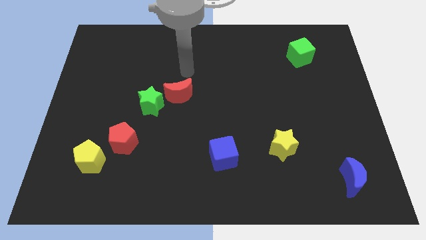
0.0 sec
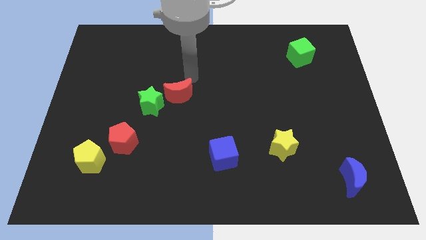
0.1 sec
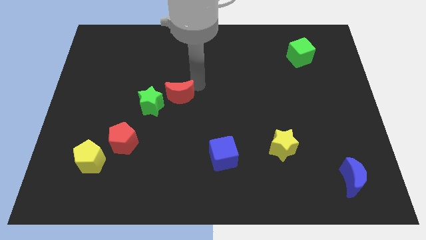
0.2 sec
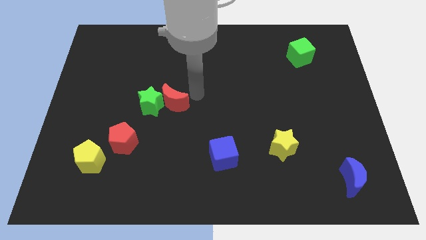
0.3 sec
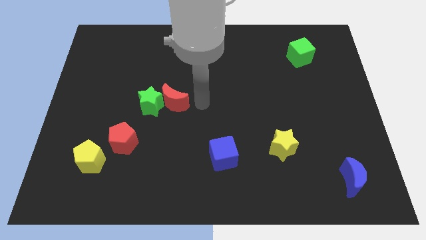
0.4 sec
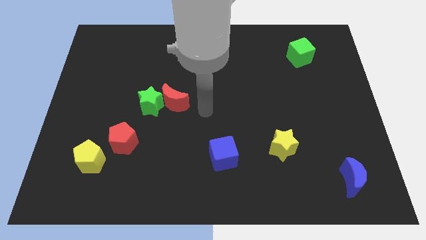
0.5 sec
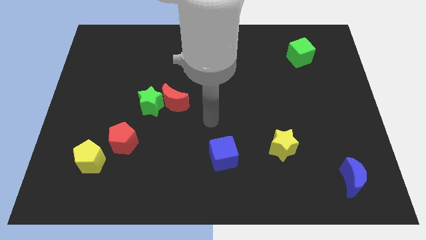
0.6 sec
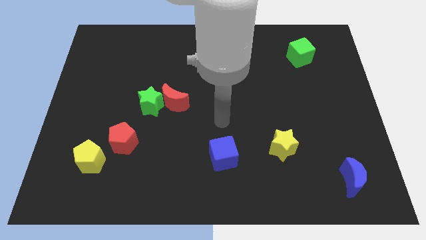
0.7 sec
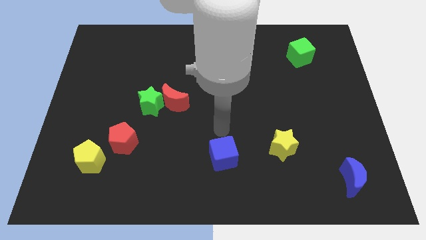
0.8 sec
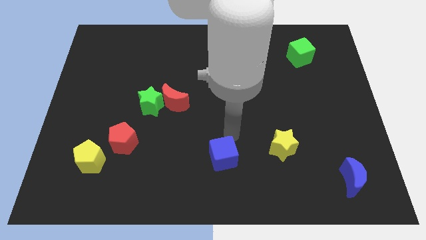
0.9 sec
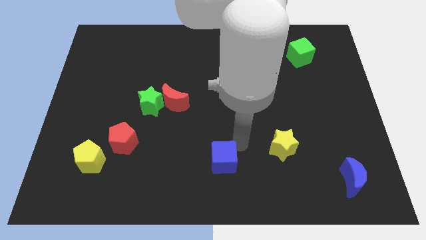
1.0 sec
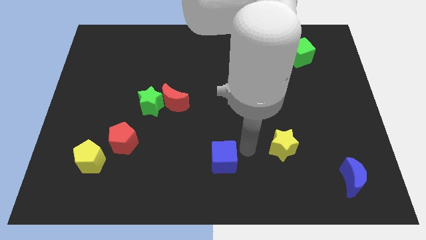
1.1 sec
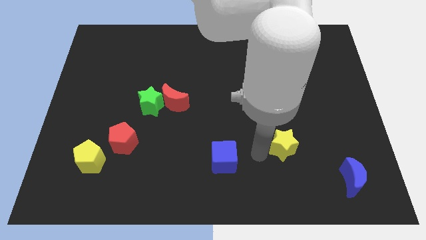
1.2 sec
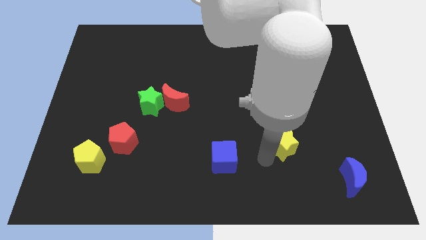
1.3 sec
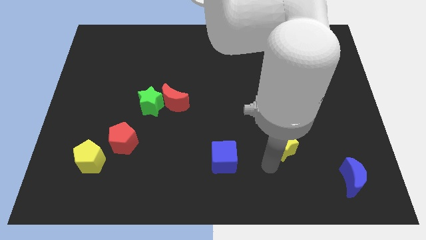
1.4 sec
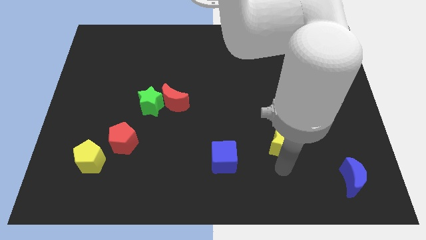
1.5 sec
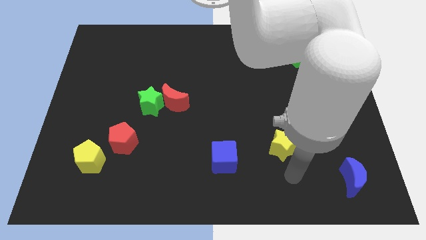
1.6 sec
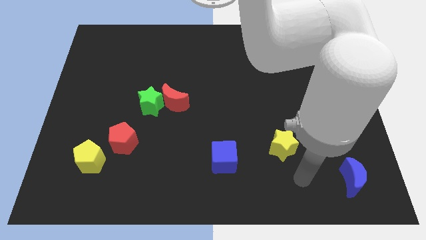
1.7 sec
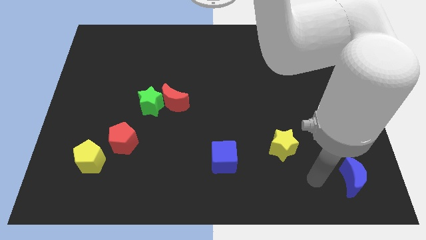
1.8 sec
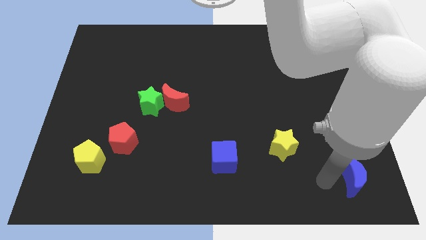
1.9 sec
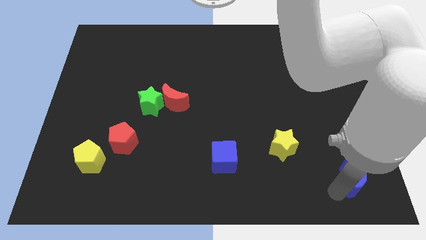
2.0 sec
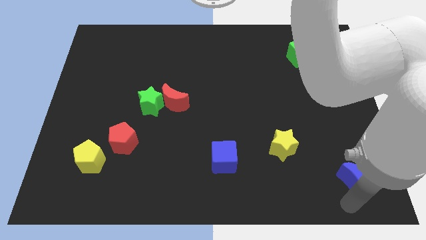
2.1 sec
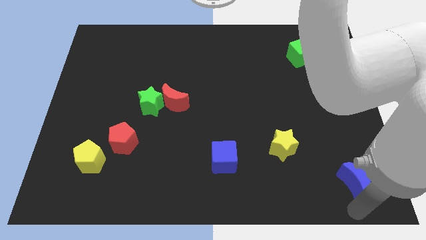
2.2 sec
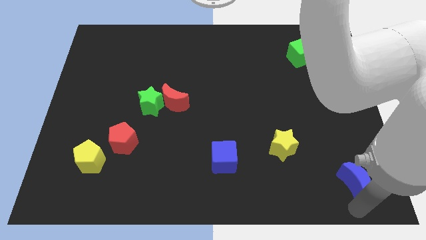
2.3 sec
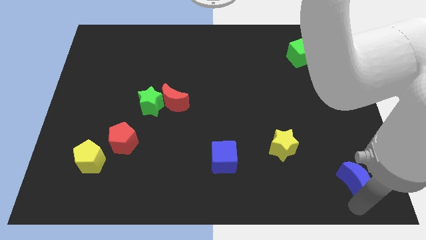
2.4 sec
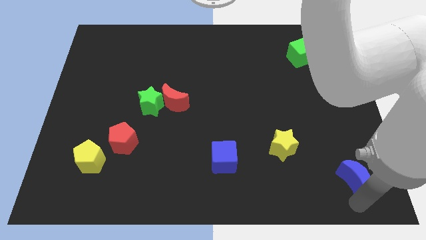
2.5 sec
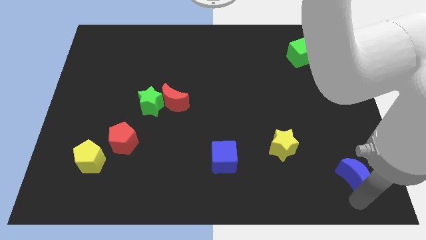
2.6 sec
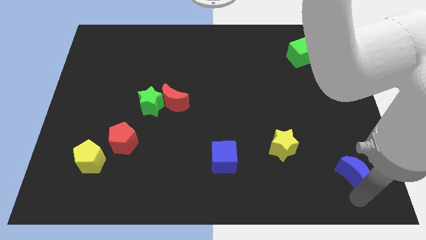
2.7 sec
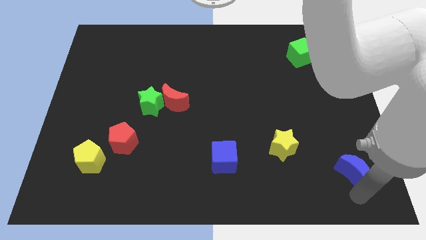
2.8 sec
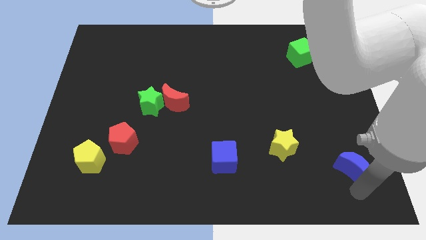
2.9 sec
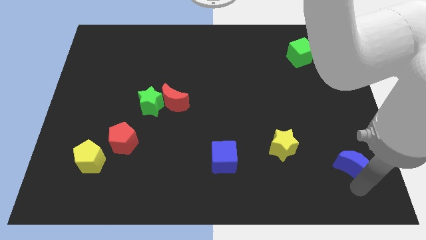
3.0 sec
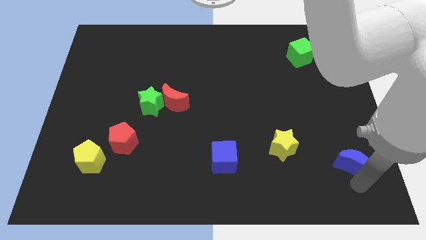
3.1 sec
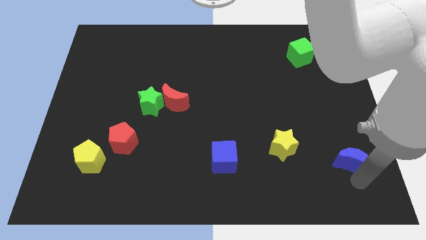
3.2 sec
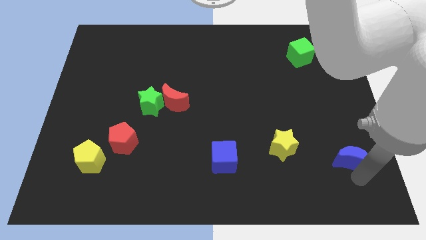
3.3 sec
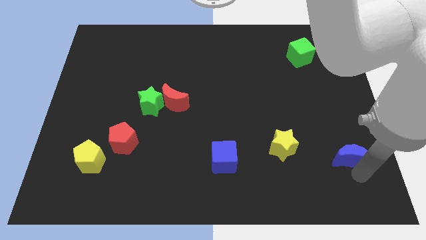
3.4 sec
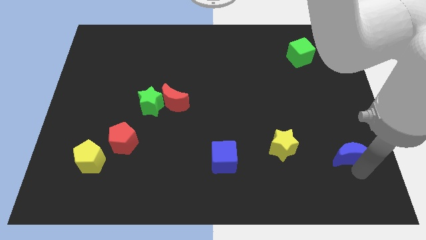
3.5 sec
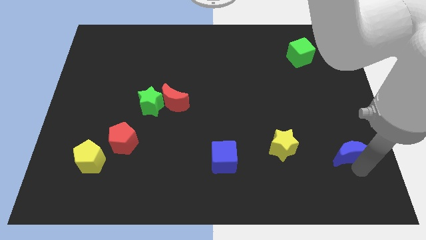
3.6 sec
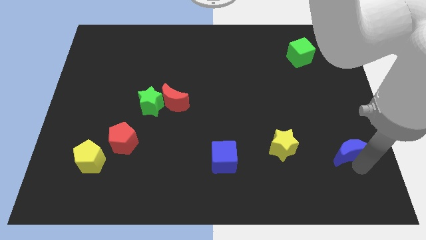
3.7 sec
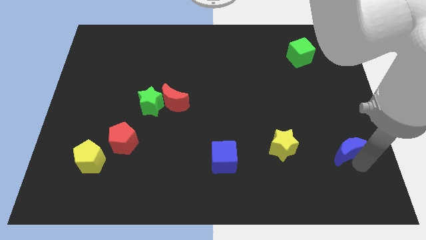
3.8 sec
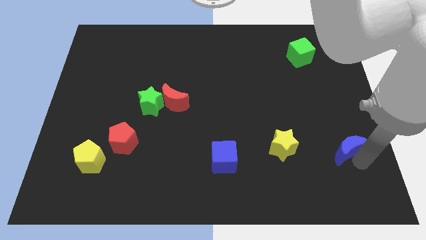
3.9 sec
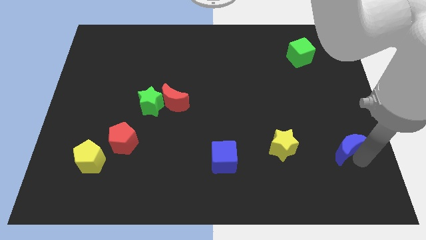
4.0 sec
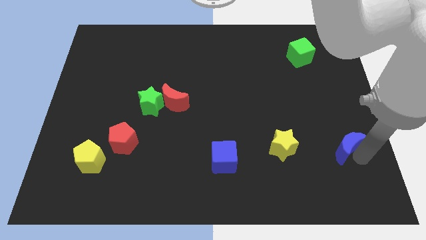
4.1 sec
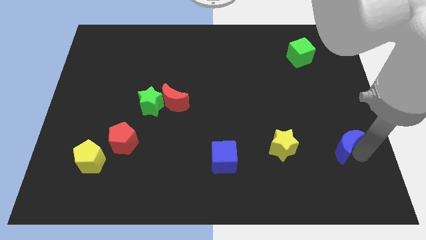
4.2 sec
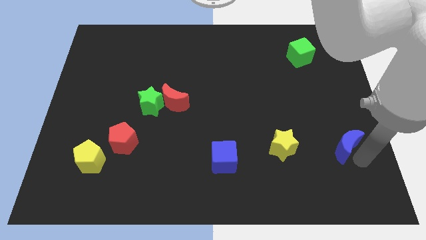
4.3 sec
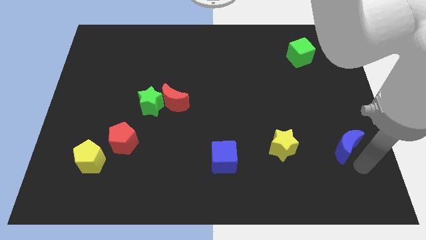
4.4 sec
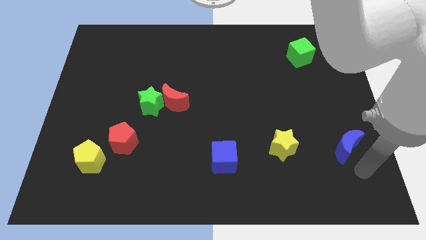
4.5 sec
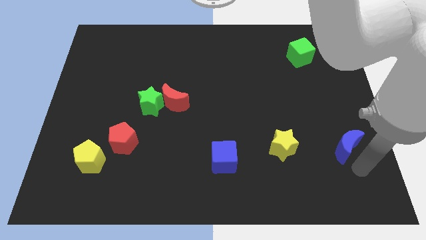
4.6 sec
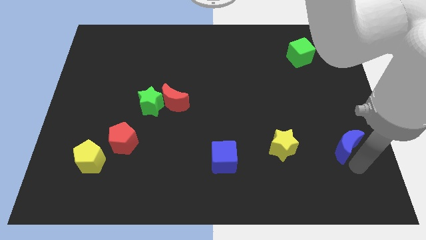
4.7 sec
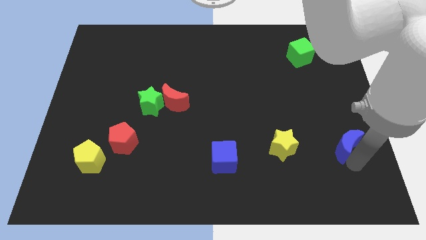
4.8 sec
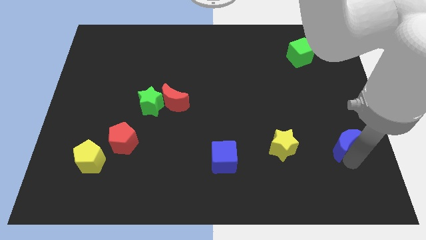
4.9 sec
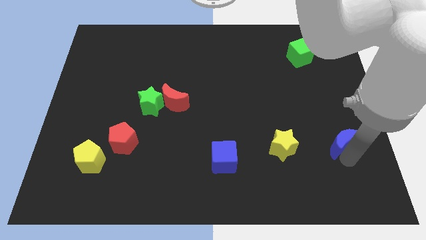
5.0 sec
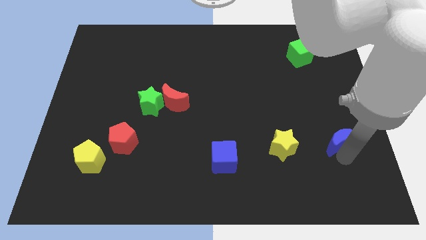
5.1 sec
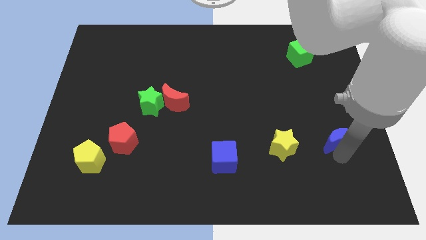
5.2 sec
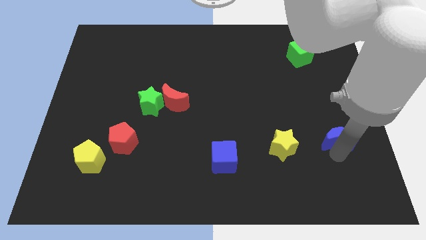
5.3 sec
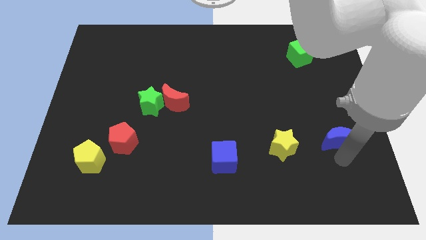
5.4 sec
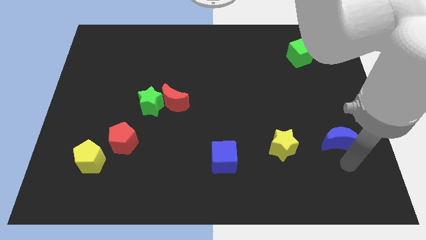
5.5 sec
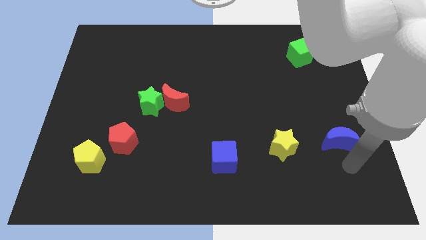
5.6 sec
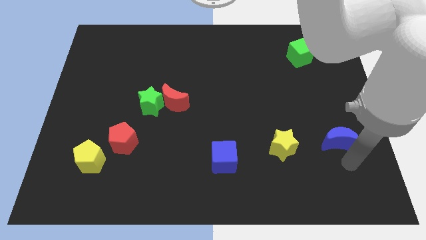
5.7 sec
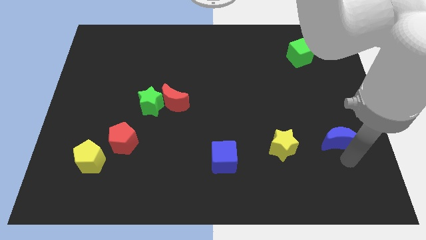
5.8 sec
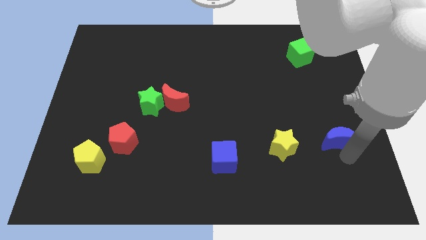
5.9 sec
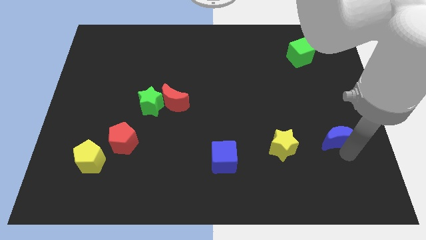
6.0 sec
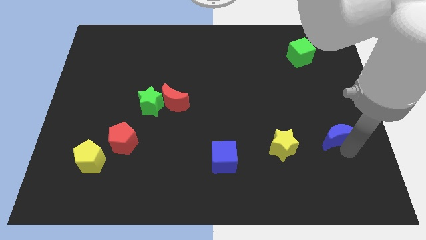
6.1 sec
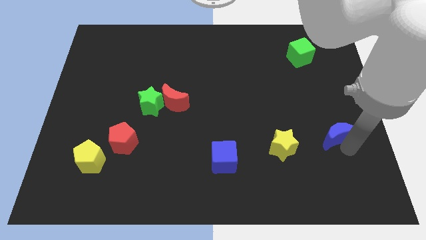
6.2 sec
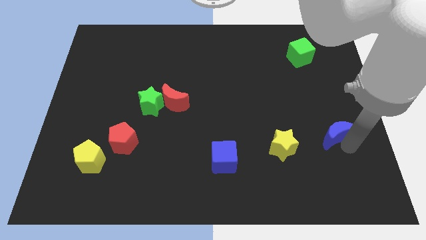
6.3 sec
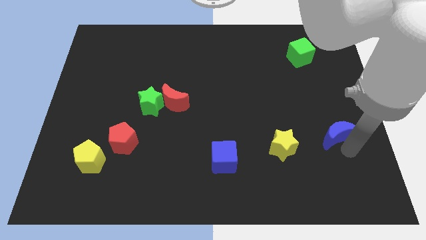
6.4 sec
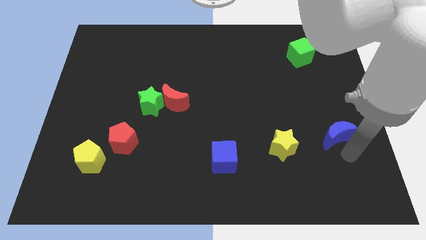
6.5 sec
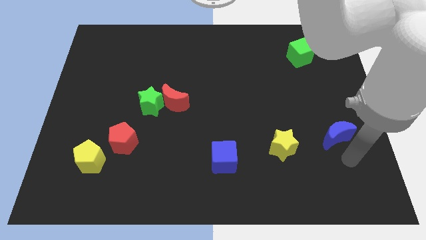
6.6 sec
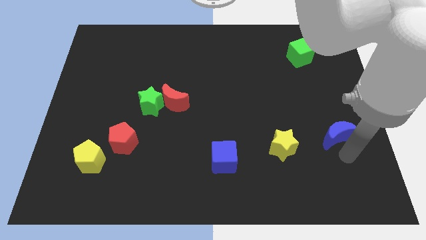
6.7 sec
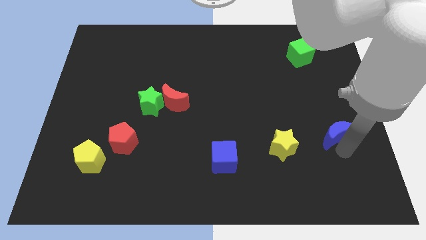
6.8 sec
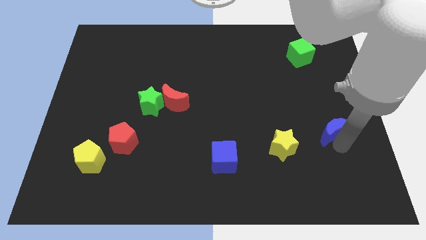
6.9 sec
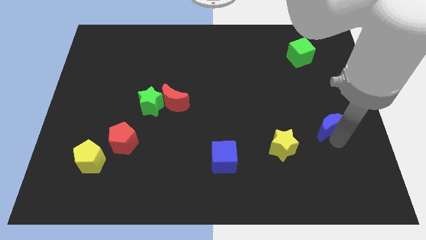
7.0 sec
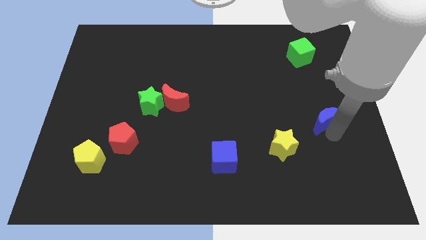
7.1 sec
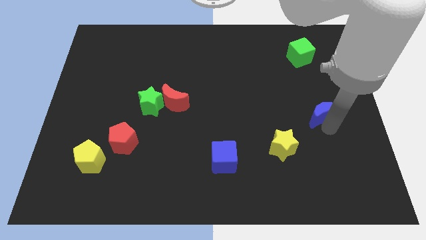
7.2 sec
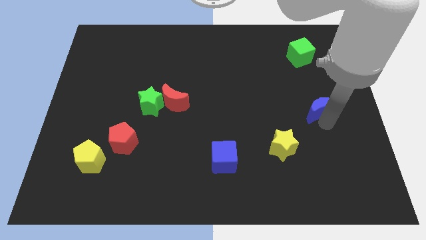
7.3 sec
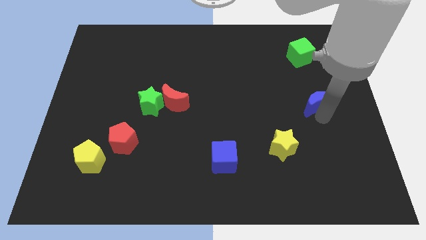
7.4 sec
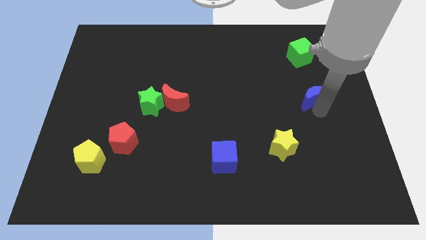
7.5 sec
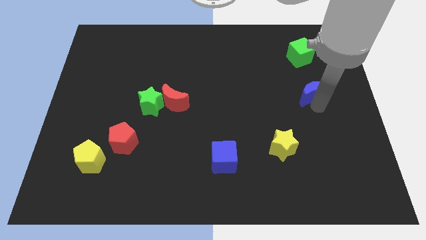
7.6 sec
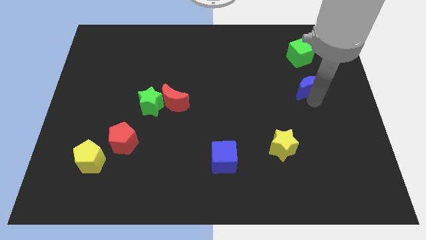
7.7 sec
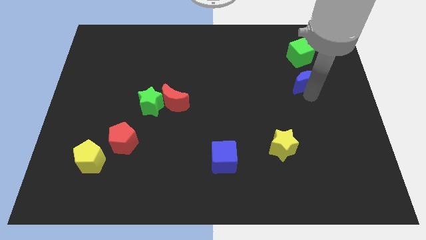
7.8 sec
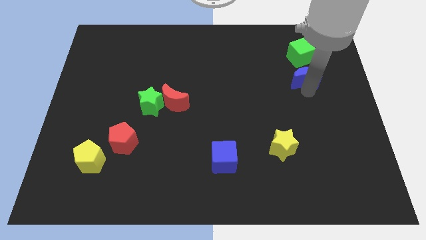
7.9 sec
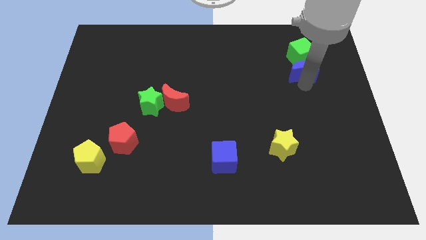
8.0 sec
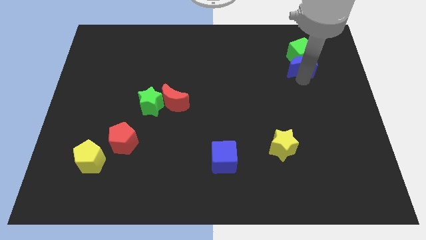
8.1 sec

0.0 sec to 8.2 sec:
move the blue moon next to the green cube
